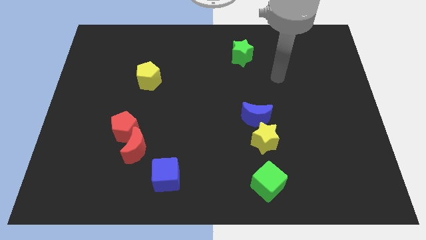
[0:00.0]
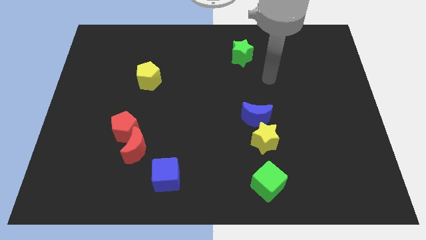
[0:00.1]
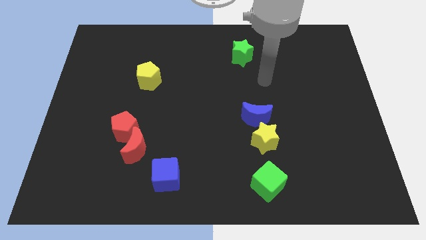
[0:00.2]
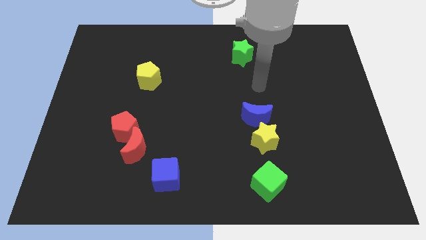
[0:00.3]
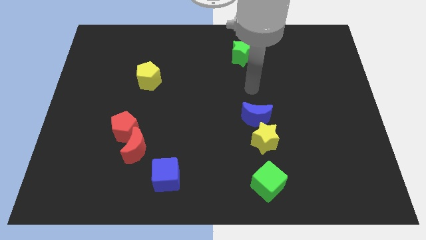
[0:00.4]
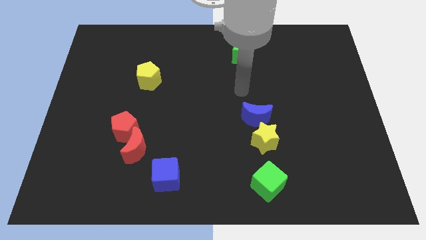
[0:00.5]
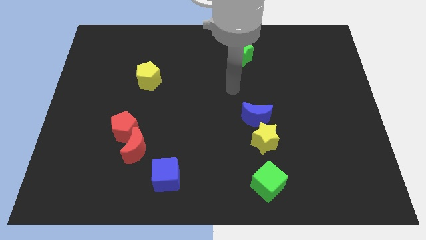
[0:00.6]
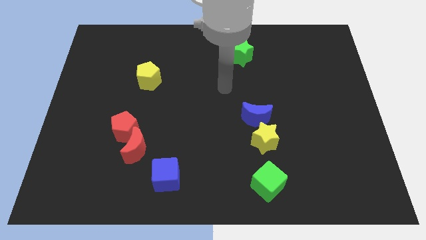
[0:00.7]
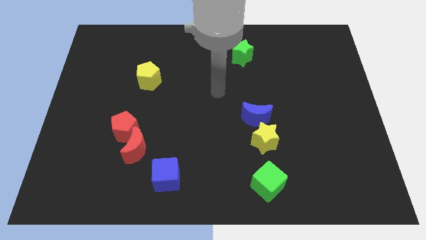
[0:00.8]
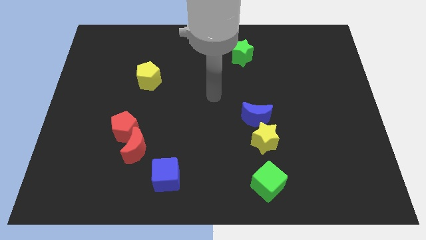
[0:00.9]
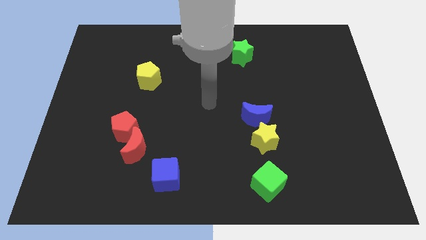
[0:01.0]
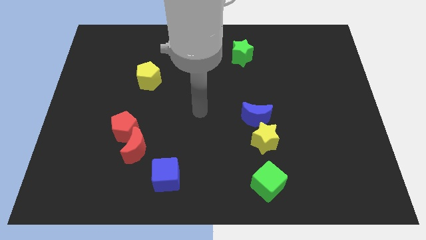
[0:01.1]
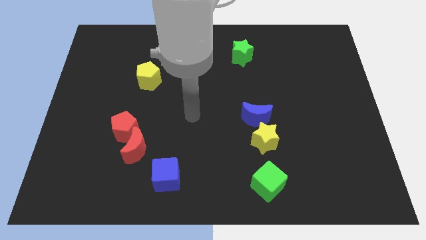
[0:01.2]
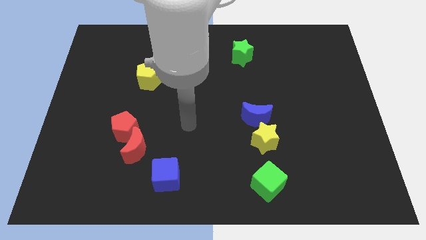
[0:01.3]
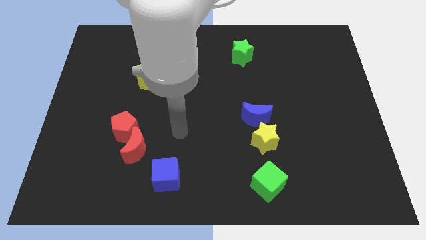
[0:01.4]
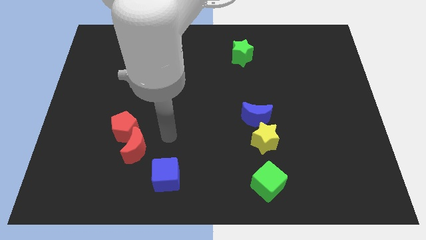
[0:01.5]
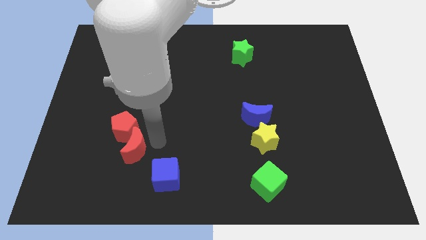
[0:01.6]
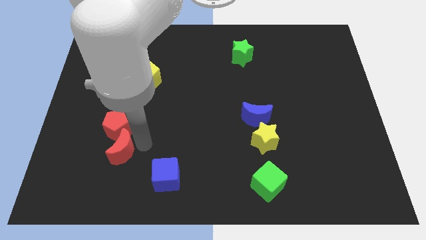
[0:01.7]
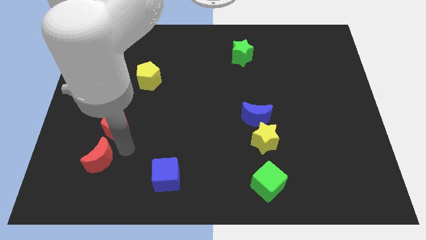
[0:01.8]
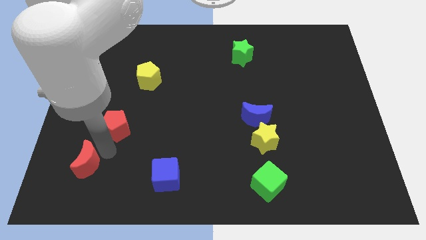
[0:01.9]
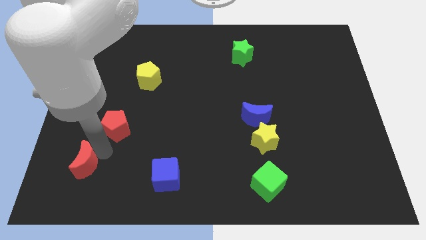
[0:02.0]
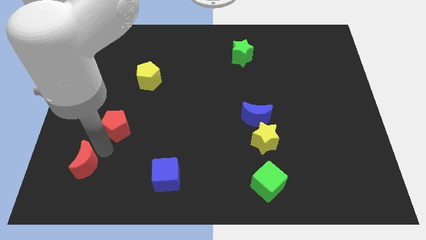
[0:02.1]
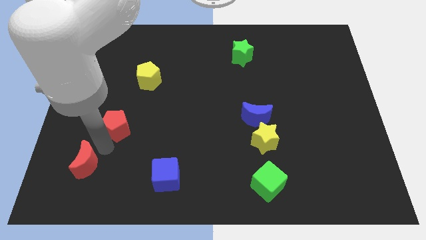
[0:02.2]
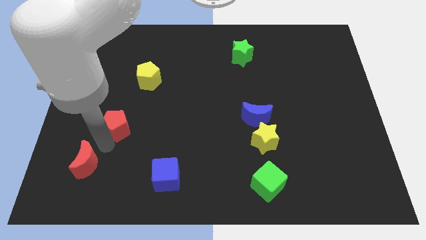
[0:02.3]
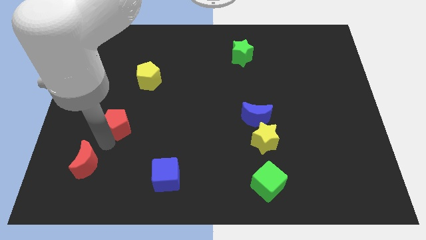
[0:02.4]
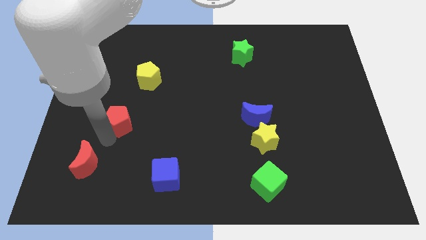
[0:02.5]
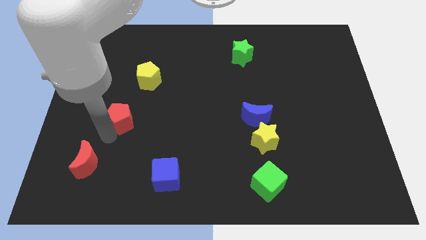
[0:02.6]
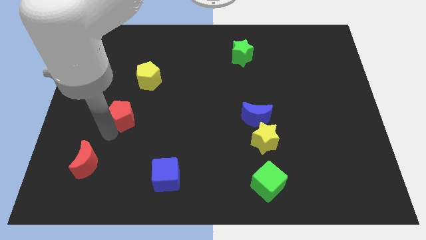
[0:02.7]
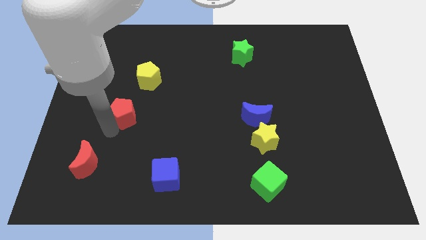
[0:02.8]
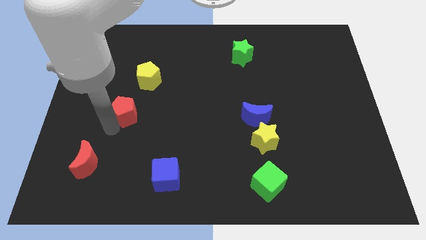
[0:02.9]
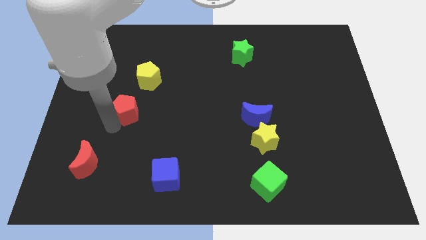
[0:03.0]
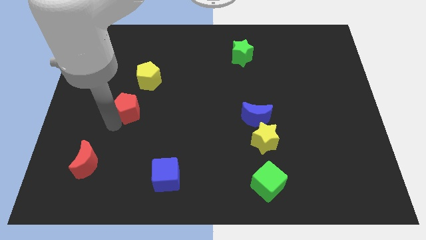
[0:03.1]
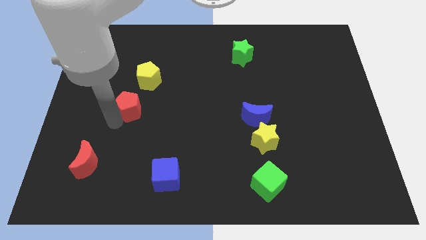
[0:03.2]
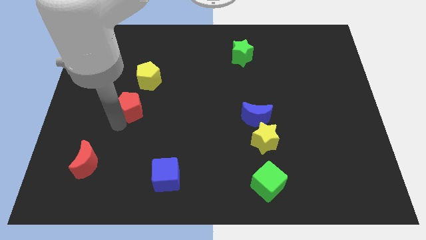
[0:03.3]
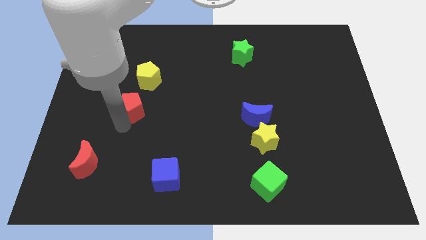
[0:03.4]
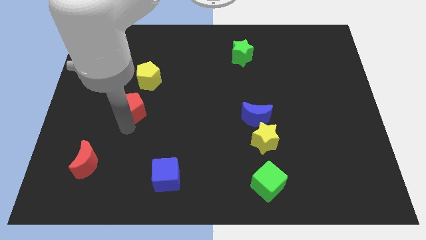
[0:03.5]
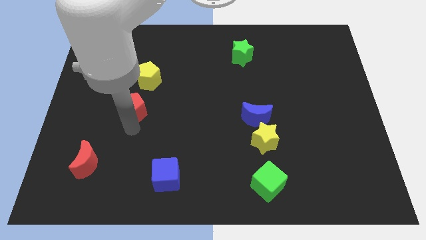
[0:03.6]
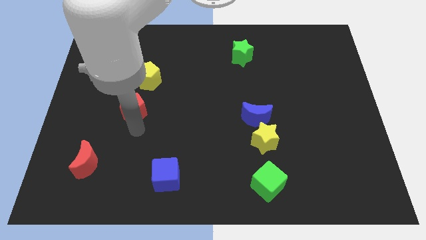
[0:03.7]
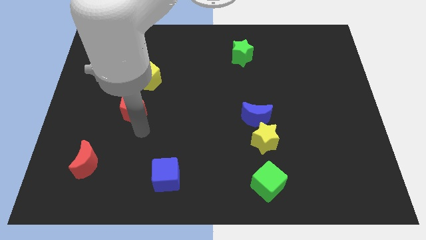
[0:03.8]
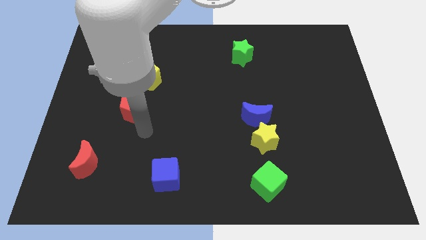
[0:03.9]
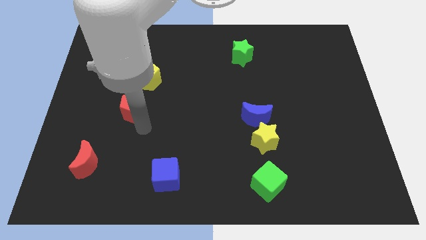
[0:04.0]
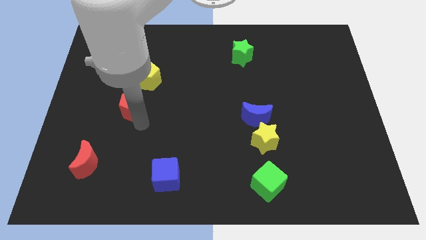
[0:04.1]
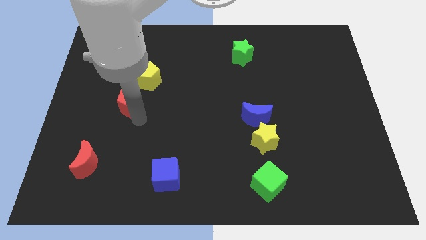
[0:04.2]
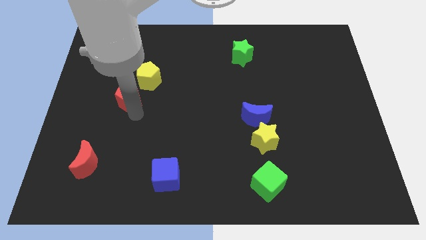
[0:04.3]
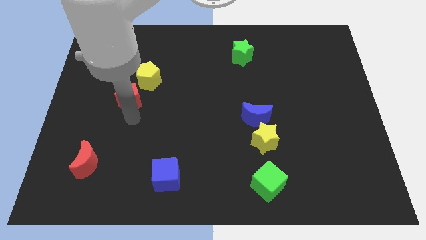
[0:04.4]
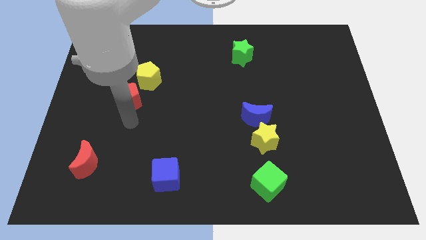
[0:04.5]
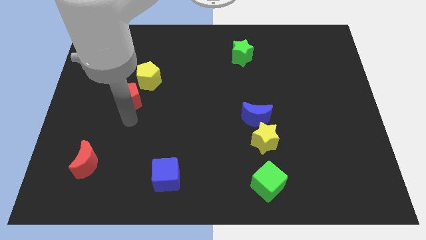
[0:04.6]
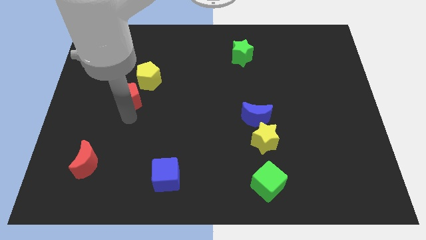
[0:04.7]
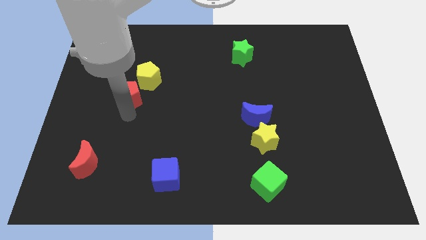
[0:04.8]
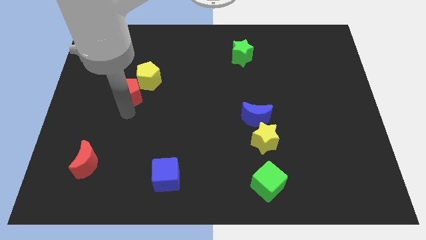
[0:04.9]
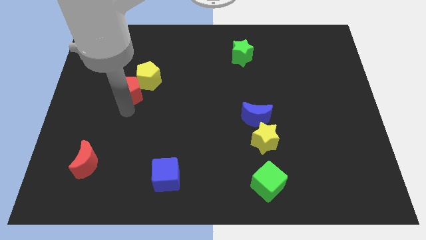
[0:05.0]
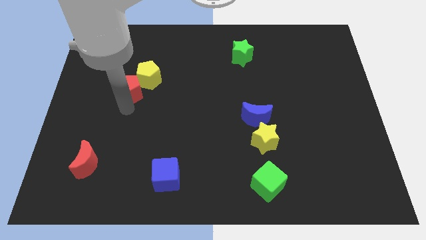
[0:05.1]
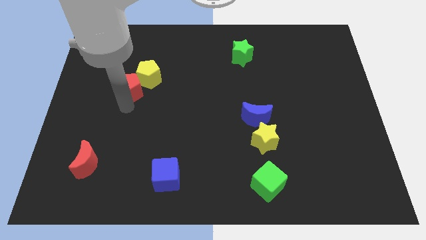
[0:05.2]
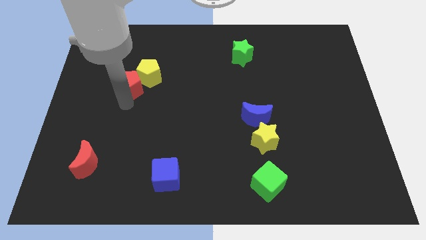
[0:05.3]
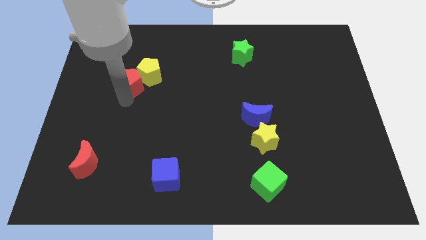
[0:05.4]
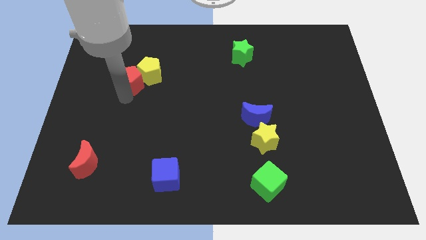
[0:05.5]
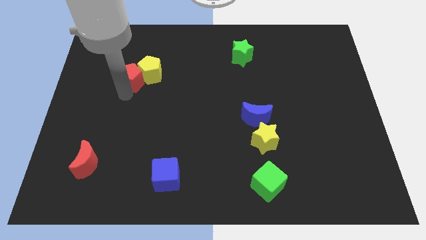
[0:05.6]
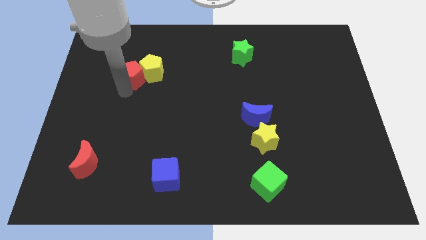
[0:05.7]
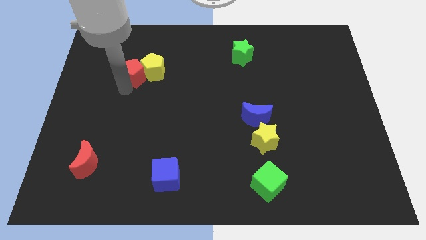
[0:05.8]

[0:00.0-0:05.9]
slide the red pentagon to the top left side of the yellow pentagon

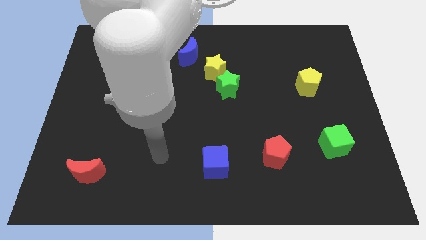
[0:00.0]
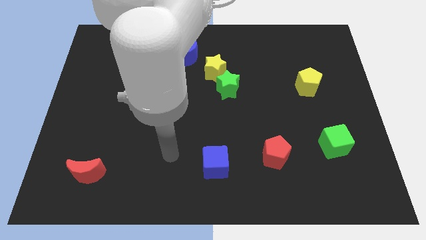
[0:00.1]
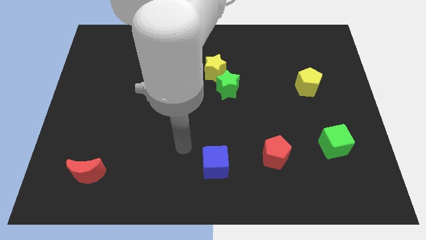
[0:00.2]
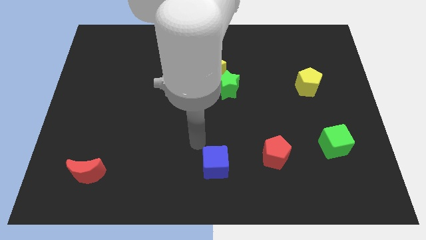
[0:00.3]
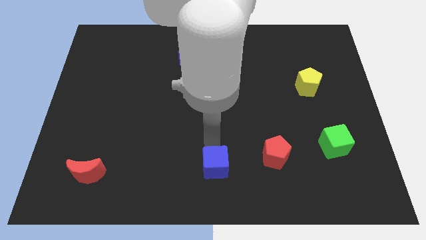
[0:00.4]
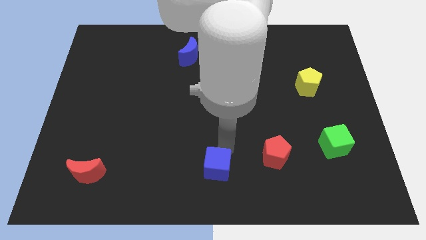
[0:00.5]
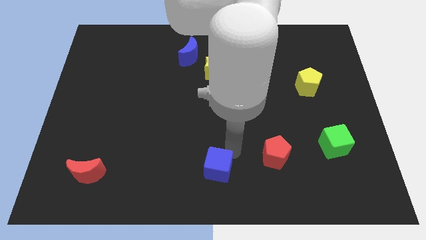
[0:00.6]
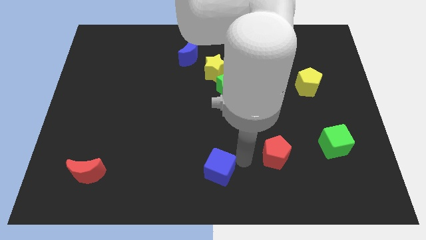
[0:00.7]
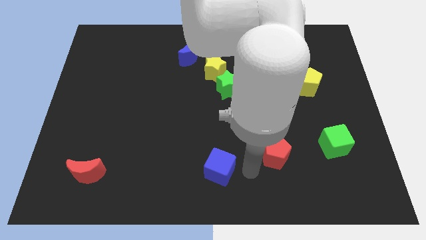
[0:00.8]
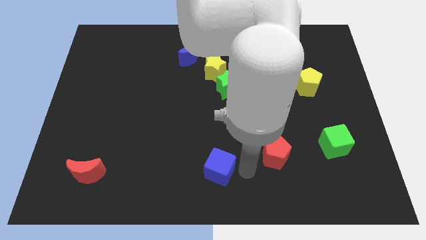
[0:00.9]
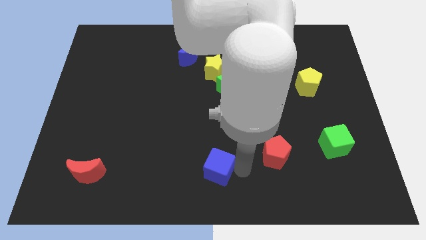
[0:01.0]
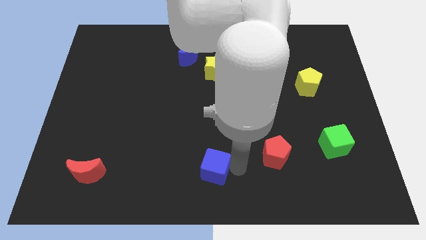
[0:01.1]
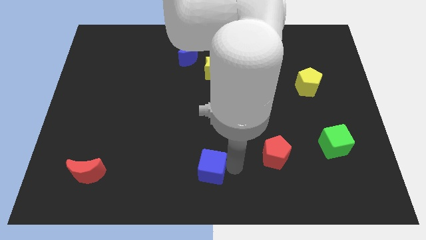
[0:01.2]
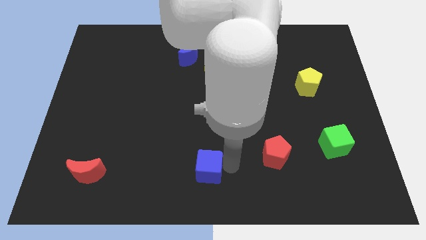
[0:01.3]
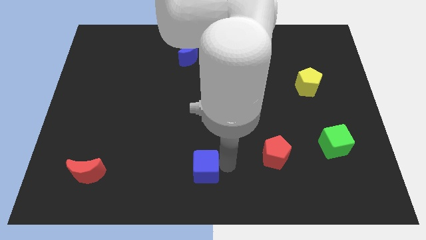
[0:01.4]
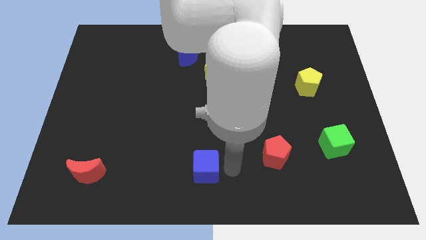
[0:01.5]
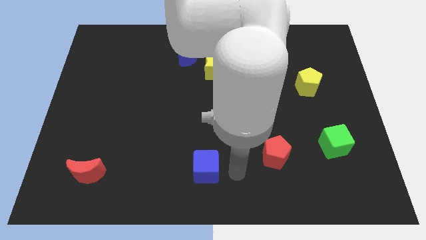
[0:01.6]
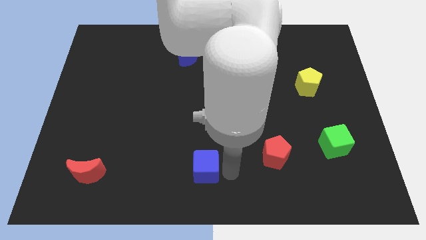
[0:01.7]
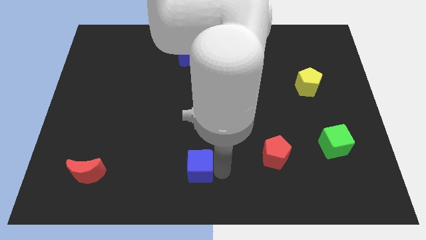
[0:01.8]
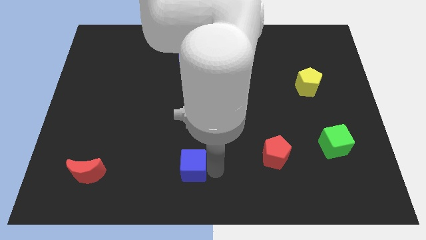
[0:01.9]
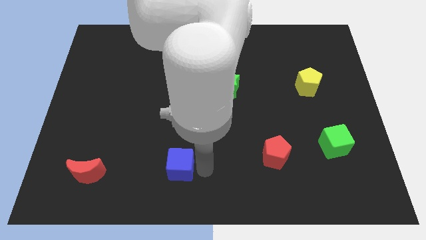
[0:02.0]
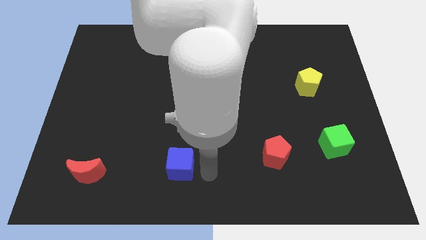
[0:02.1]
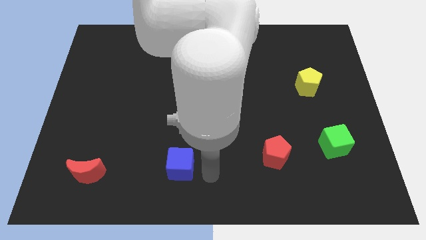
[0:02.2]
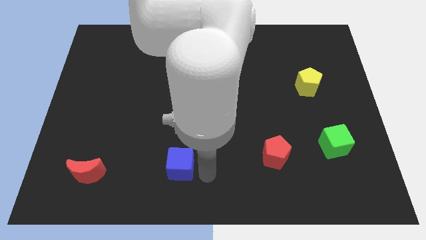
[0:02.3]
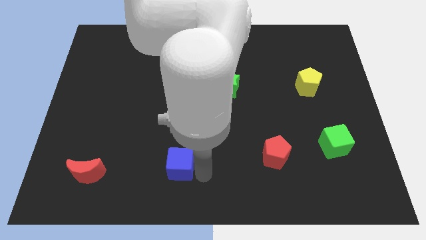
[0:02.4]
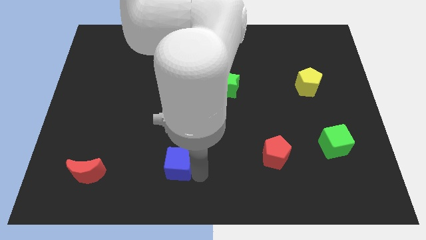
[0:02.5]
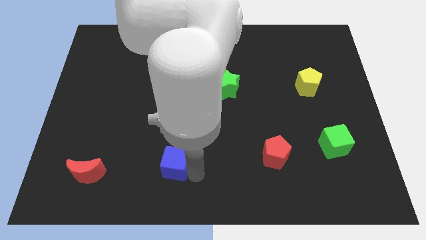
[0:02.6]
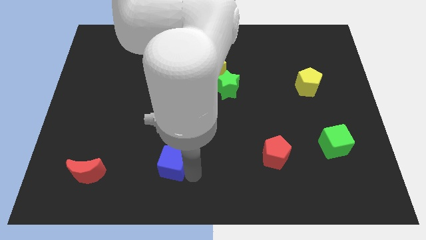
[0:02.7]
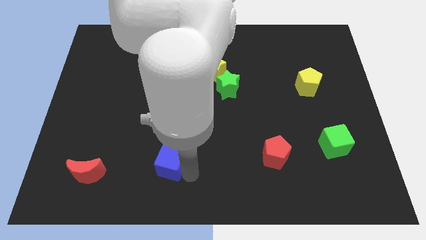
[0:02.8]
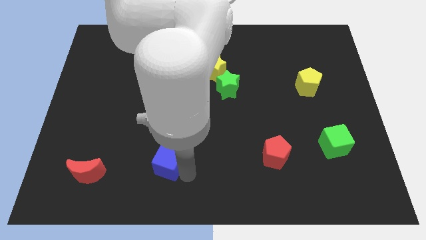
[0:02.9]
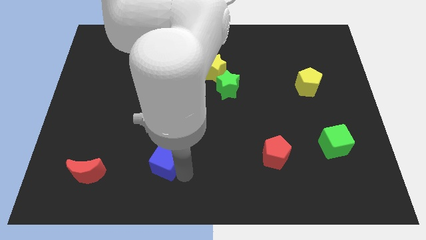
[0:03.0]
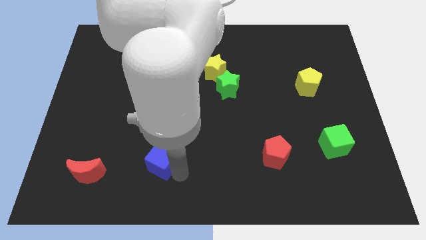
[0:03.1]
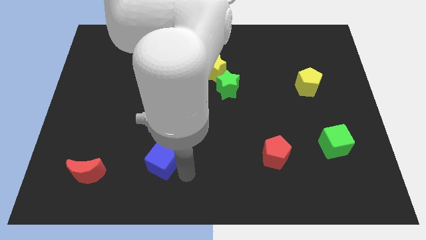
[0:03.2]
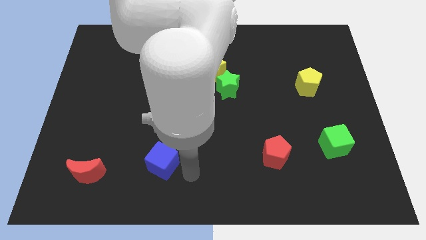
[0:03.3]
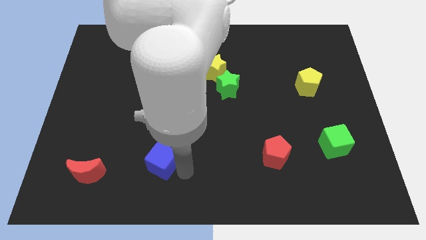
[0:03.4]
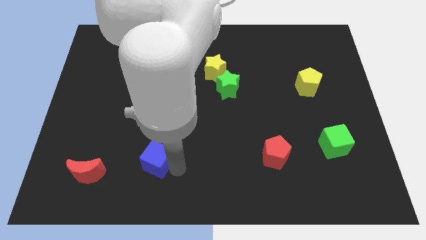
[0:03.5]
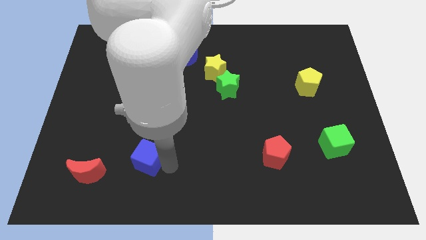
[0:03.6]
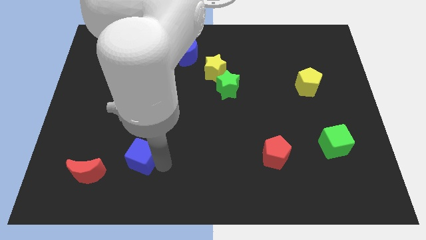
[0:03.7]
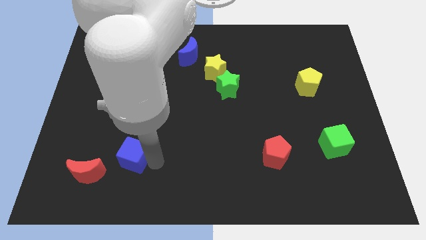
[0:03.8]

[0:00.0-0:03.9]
slide the blue cube diagonally up and to the right of the red moon
